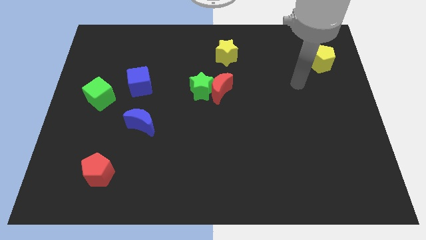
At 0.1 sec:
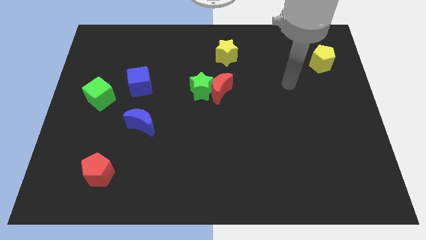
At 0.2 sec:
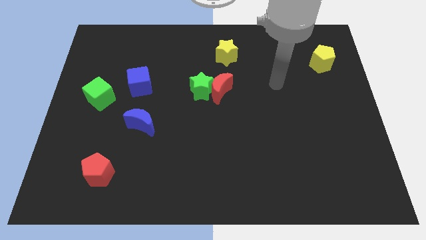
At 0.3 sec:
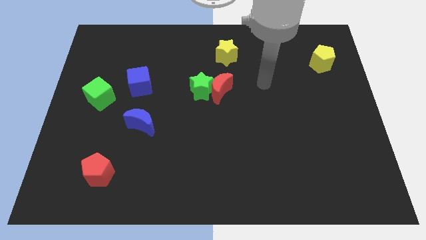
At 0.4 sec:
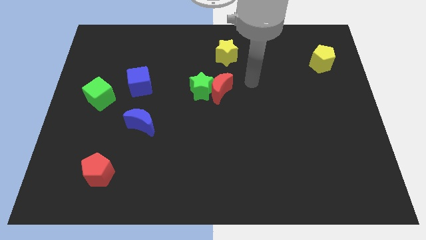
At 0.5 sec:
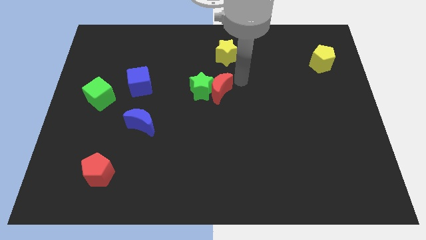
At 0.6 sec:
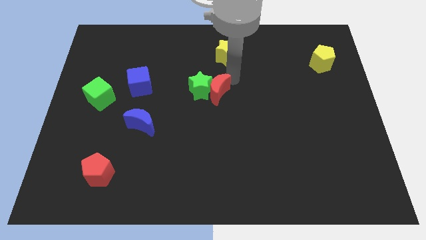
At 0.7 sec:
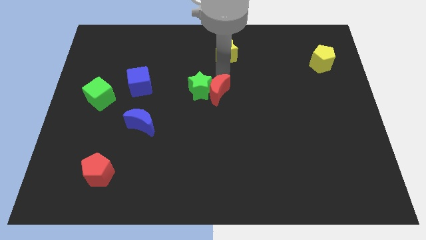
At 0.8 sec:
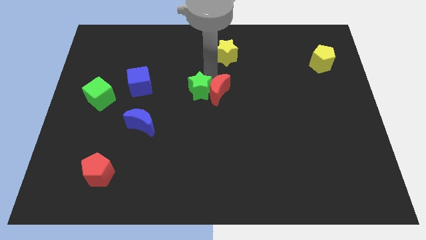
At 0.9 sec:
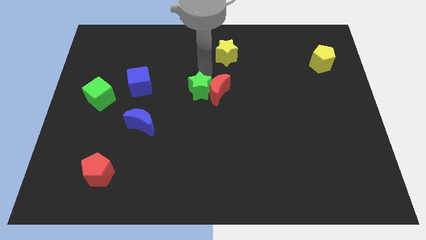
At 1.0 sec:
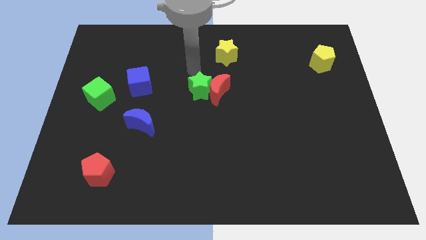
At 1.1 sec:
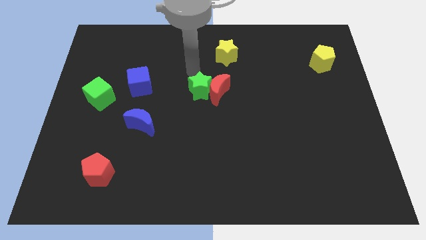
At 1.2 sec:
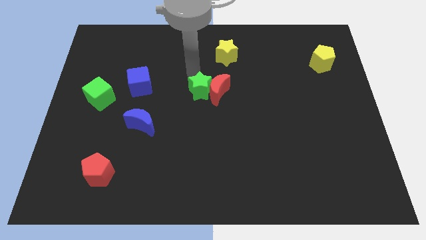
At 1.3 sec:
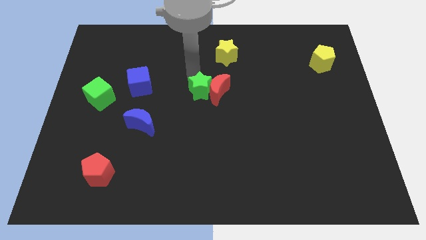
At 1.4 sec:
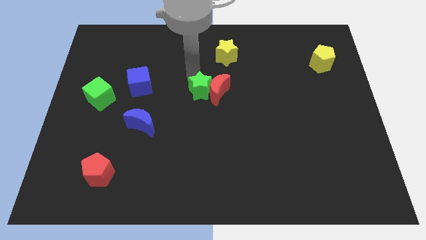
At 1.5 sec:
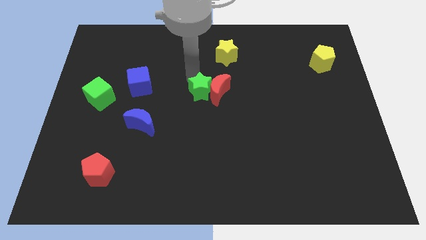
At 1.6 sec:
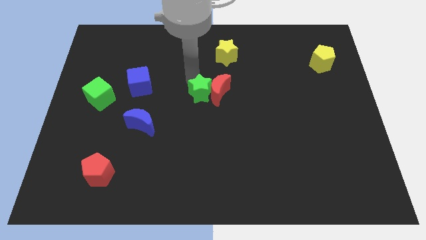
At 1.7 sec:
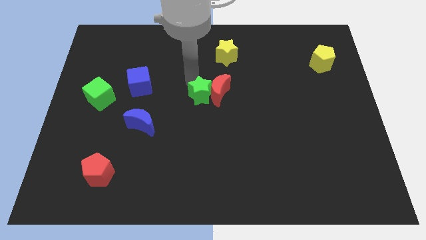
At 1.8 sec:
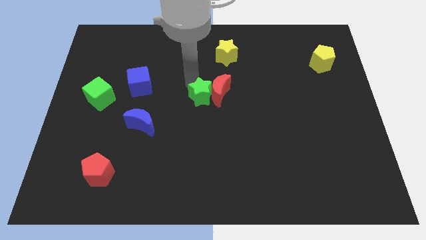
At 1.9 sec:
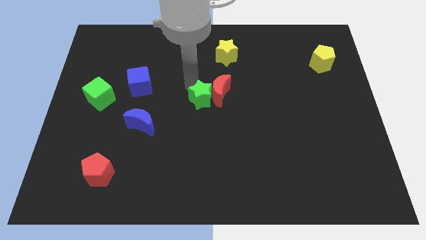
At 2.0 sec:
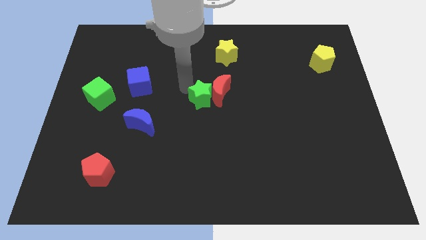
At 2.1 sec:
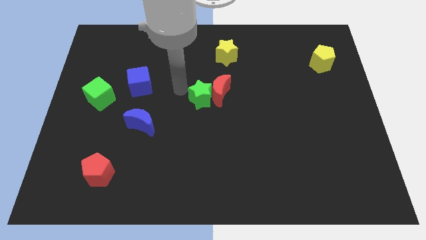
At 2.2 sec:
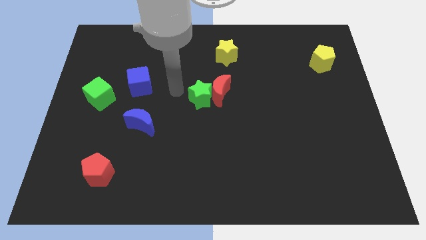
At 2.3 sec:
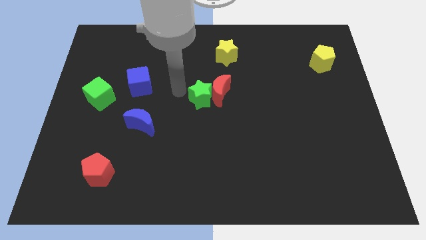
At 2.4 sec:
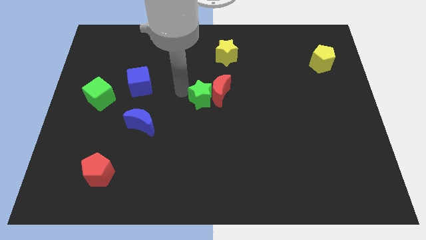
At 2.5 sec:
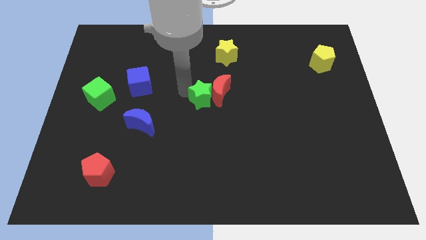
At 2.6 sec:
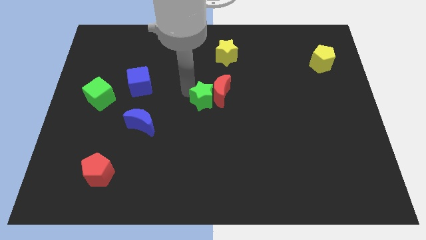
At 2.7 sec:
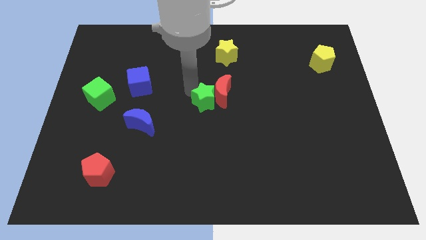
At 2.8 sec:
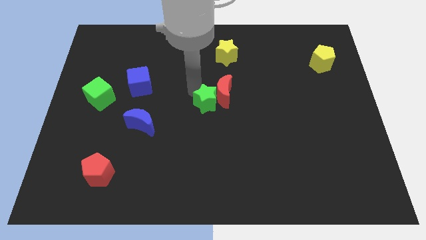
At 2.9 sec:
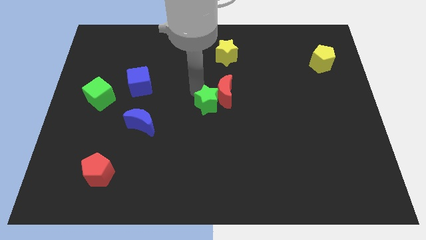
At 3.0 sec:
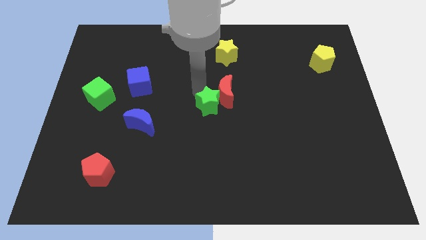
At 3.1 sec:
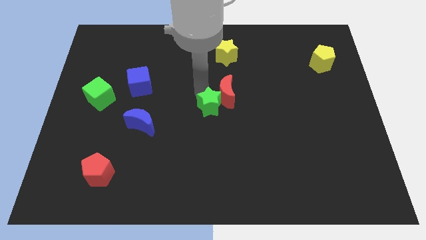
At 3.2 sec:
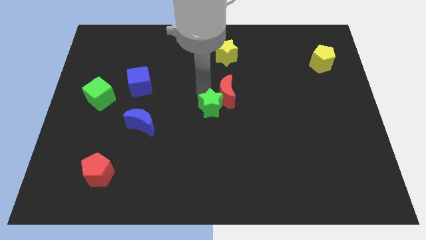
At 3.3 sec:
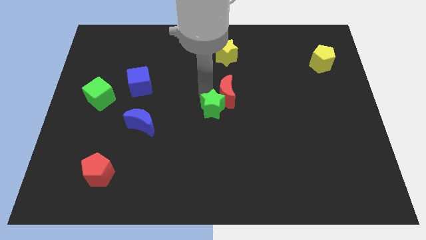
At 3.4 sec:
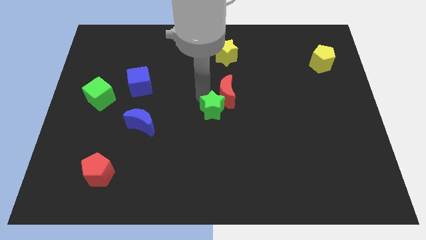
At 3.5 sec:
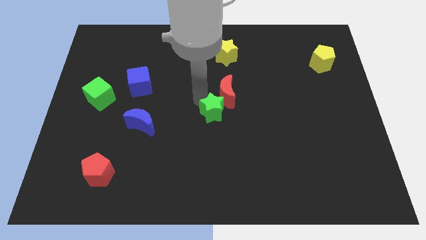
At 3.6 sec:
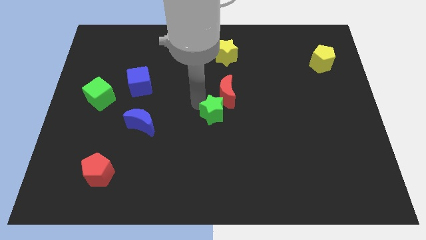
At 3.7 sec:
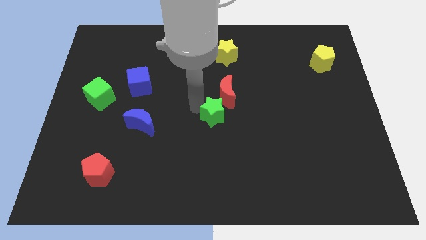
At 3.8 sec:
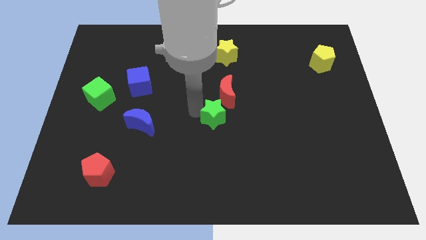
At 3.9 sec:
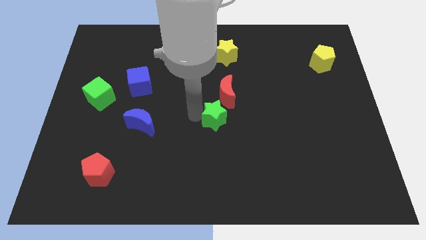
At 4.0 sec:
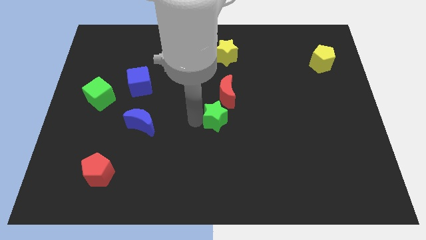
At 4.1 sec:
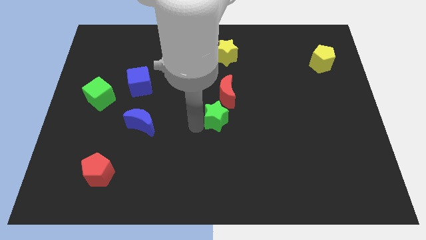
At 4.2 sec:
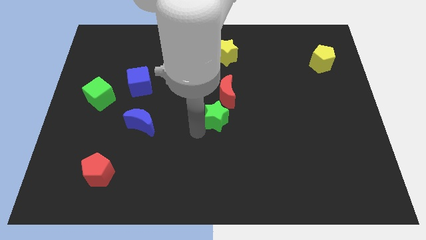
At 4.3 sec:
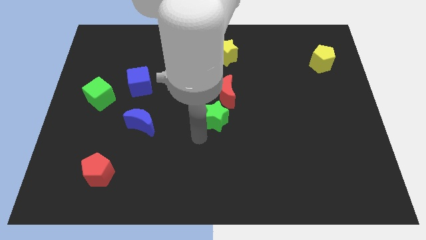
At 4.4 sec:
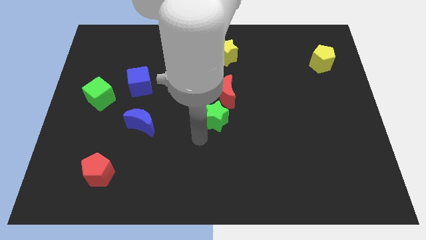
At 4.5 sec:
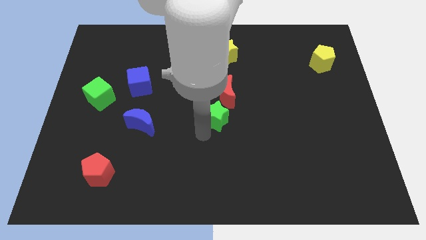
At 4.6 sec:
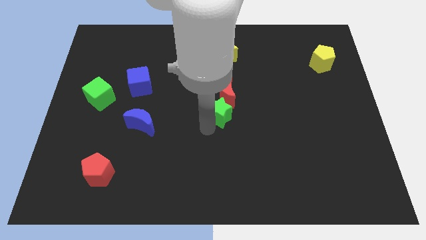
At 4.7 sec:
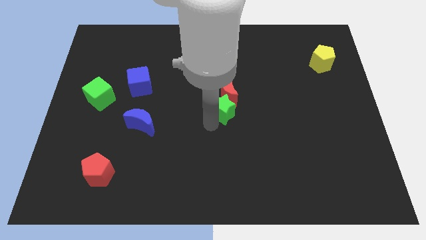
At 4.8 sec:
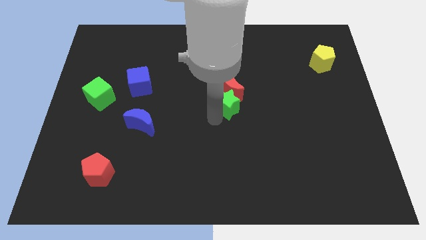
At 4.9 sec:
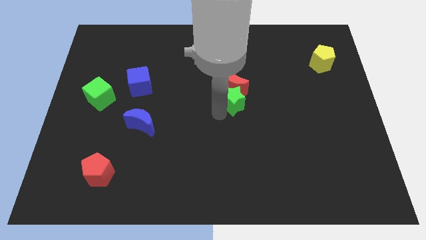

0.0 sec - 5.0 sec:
slide the green star to the right somewhat

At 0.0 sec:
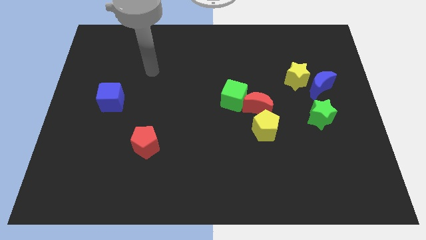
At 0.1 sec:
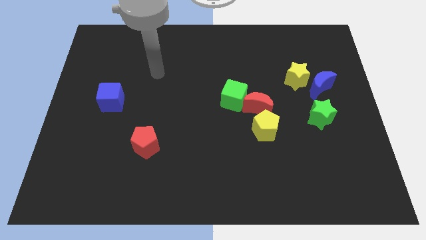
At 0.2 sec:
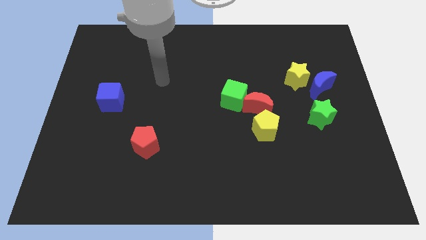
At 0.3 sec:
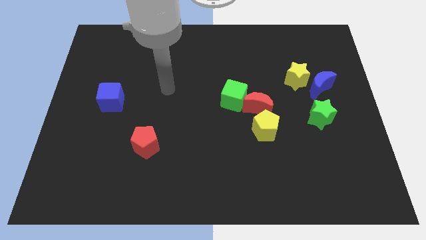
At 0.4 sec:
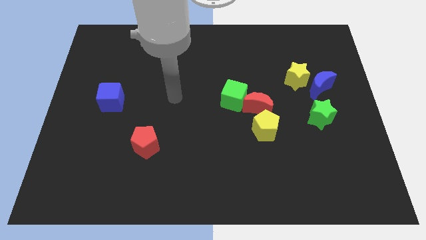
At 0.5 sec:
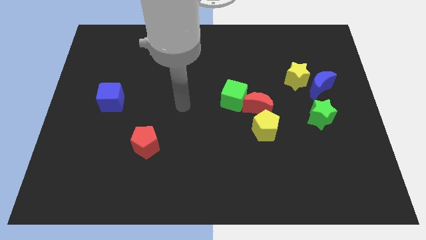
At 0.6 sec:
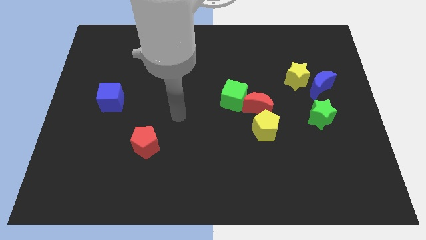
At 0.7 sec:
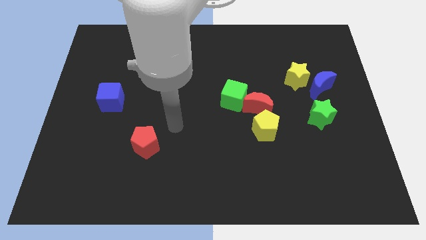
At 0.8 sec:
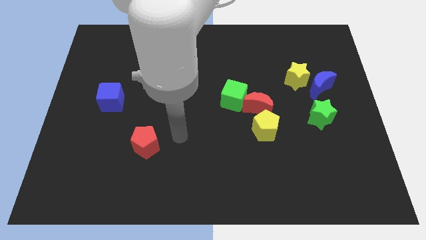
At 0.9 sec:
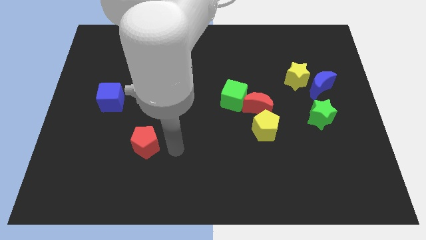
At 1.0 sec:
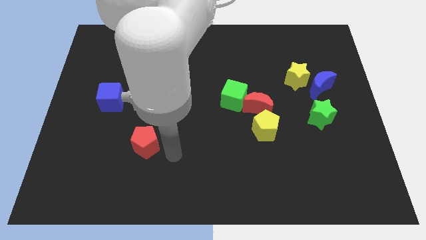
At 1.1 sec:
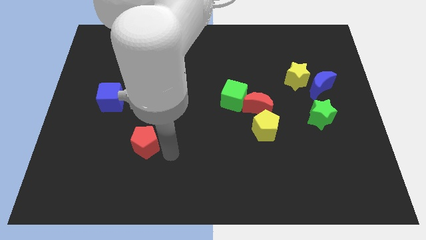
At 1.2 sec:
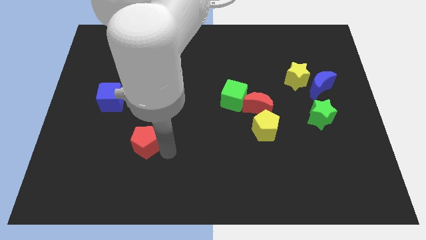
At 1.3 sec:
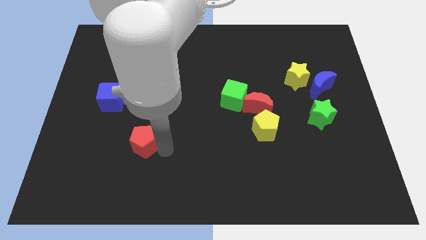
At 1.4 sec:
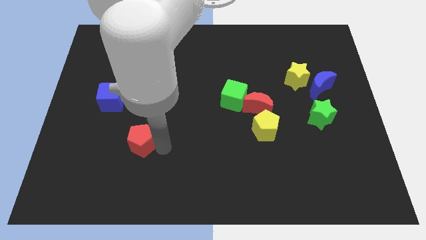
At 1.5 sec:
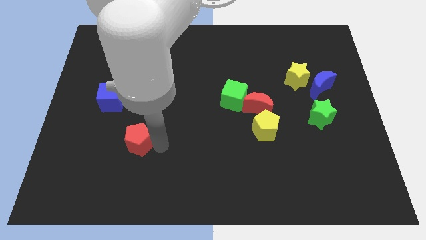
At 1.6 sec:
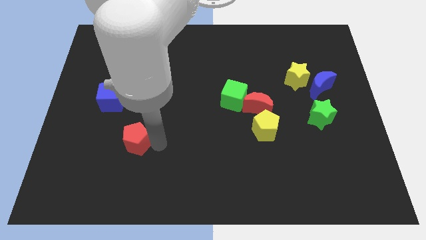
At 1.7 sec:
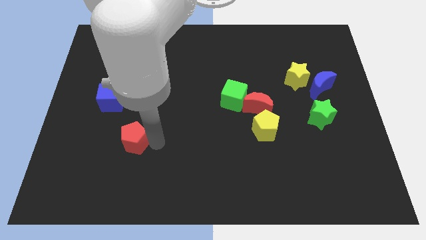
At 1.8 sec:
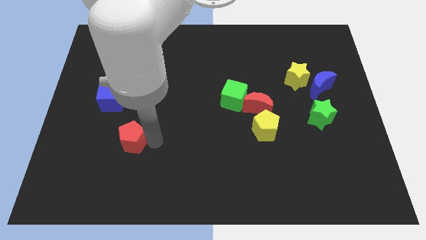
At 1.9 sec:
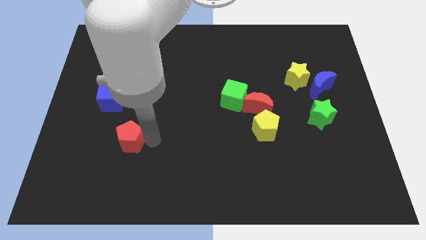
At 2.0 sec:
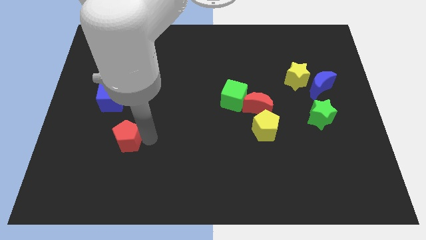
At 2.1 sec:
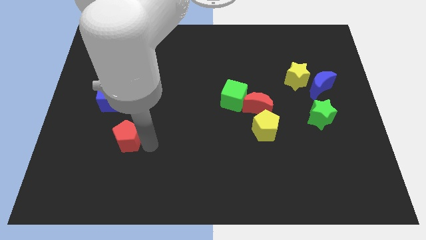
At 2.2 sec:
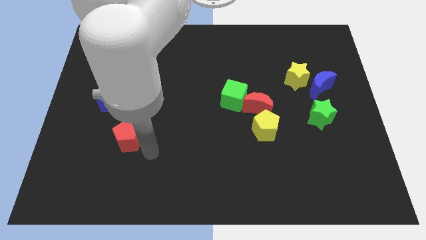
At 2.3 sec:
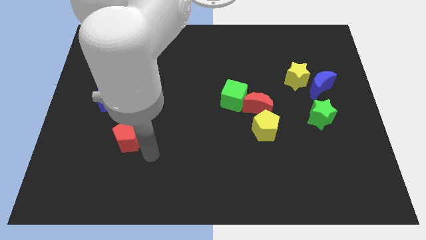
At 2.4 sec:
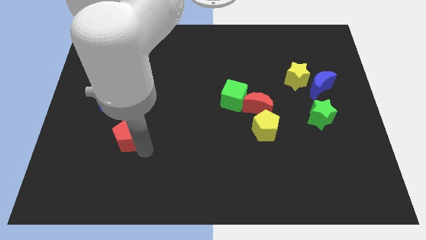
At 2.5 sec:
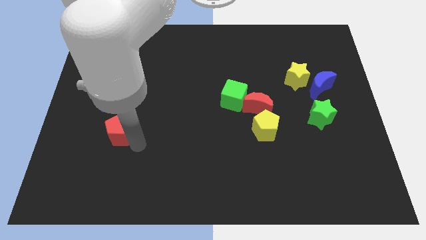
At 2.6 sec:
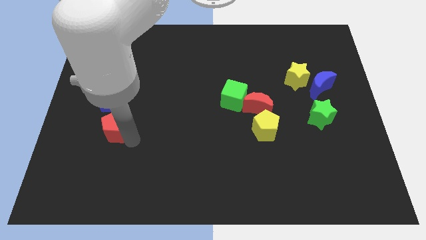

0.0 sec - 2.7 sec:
slide the red pentagon up and left diagonally a little

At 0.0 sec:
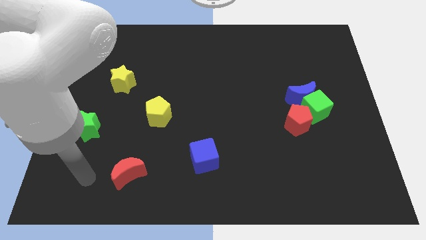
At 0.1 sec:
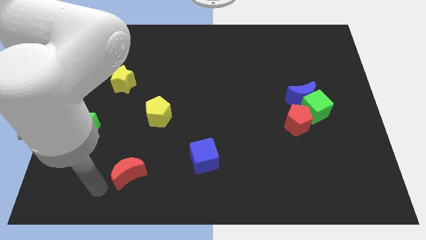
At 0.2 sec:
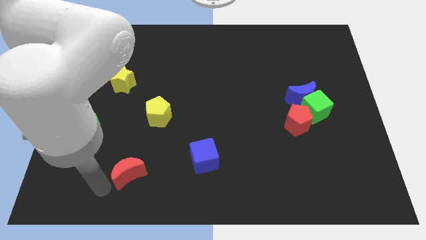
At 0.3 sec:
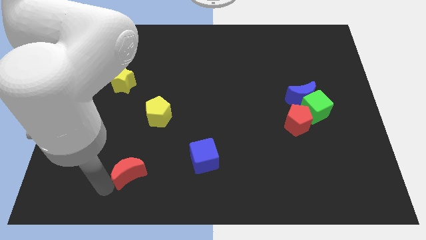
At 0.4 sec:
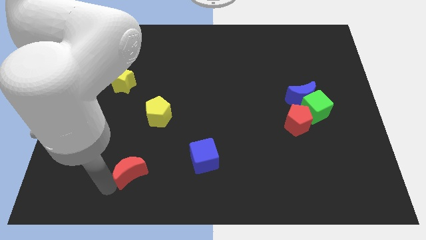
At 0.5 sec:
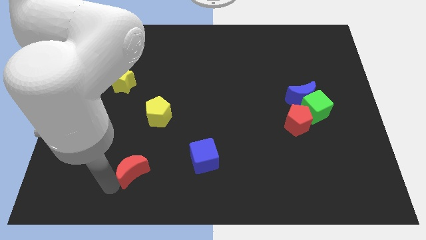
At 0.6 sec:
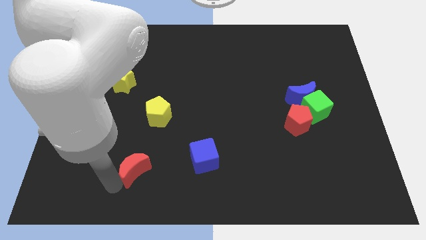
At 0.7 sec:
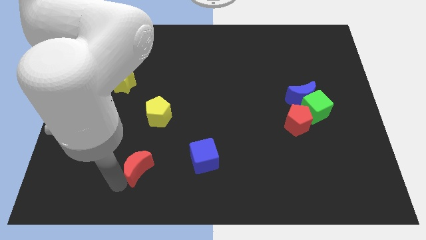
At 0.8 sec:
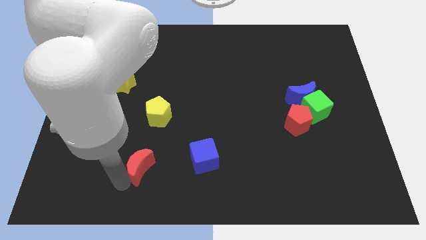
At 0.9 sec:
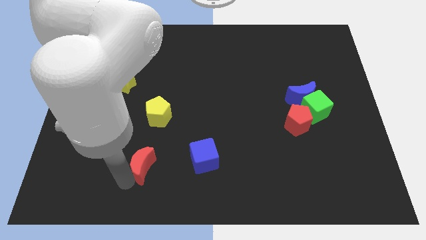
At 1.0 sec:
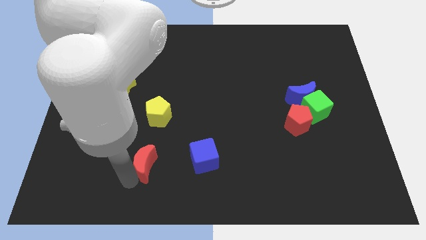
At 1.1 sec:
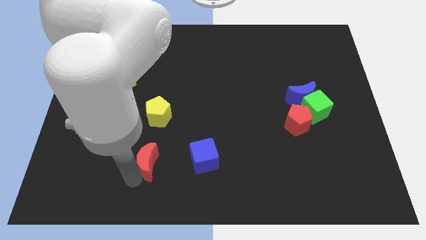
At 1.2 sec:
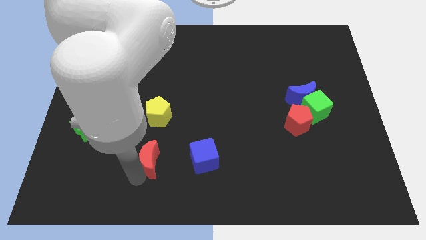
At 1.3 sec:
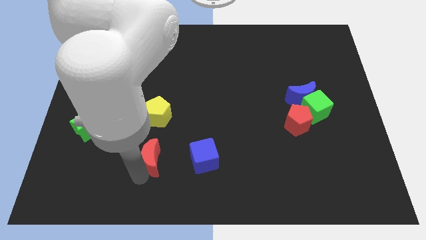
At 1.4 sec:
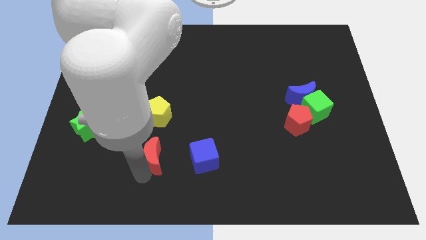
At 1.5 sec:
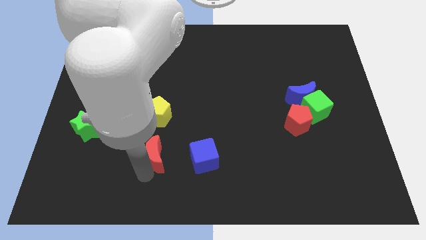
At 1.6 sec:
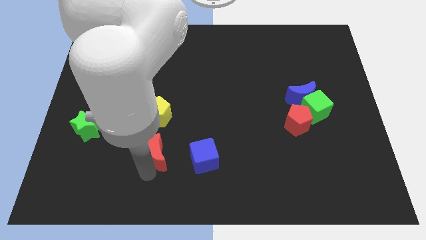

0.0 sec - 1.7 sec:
push the red moon upwards and then to the right slightly
